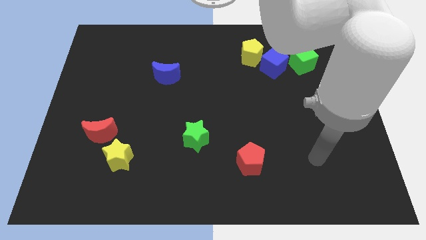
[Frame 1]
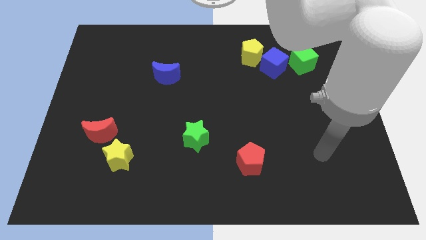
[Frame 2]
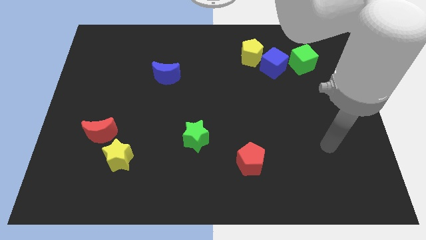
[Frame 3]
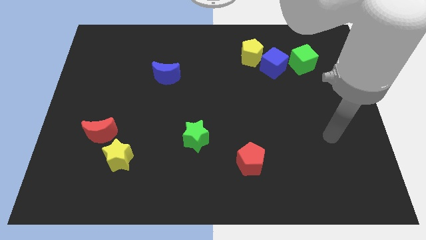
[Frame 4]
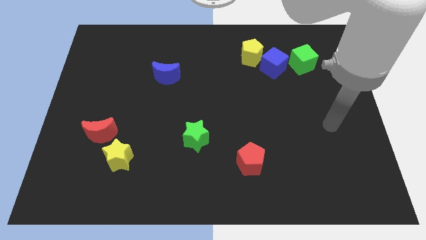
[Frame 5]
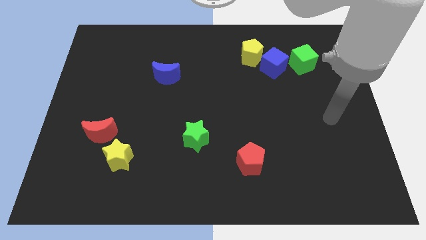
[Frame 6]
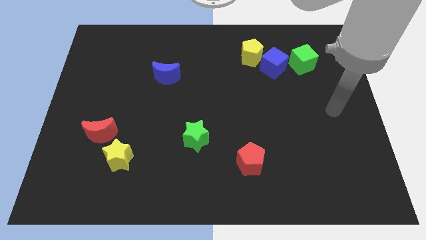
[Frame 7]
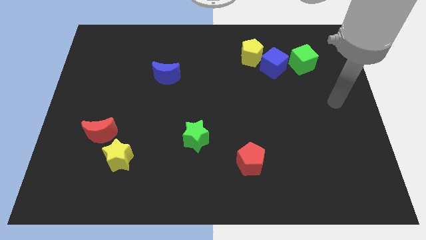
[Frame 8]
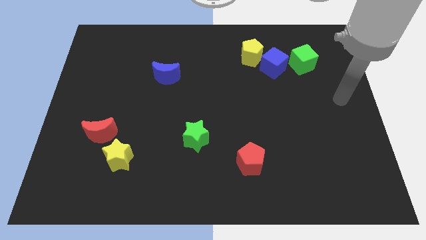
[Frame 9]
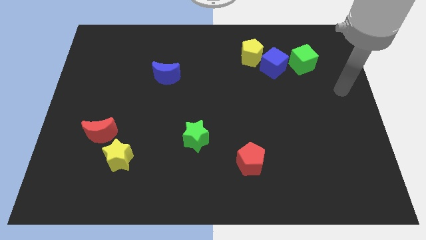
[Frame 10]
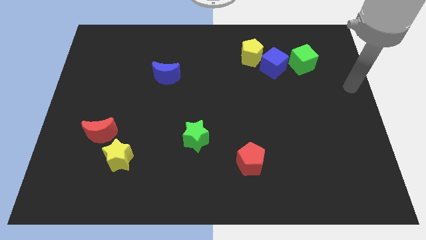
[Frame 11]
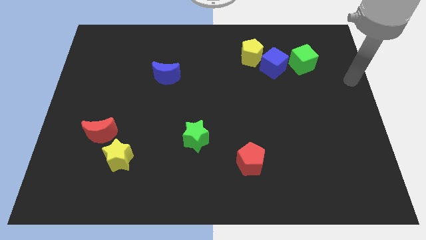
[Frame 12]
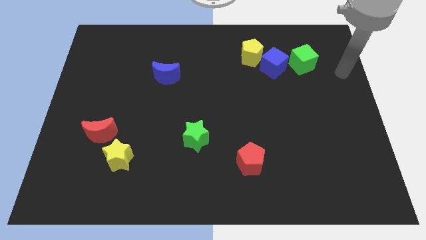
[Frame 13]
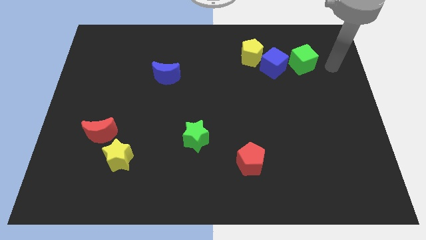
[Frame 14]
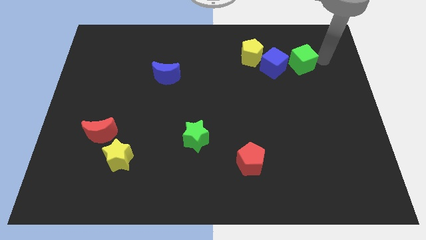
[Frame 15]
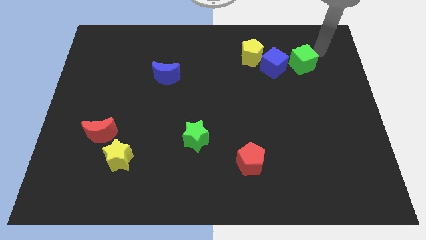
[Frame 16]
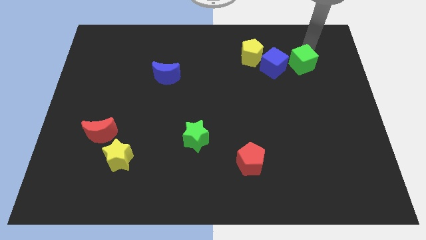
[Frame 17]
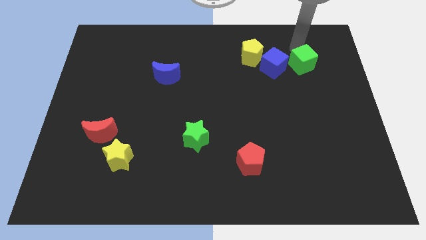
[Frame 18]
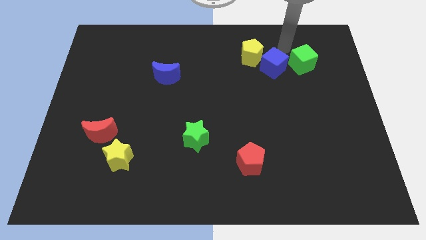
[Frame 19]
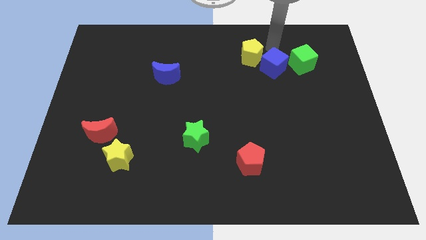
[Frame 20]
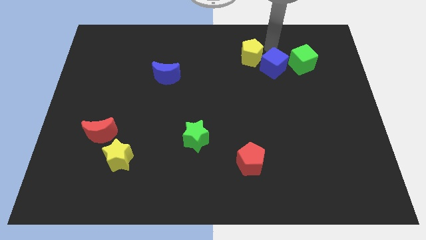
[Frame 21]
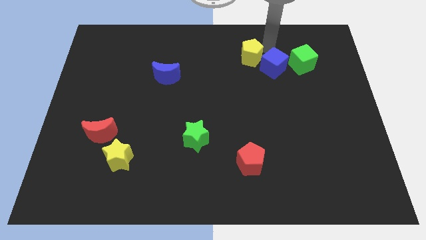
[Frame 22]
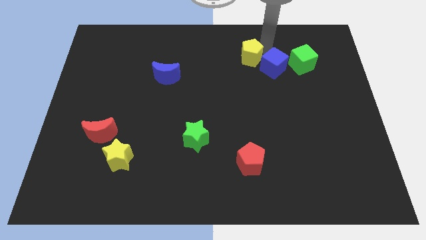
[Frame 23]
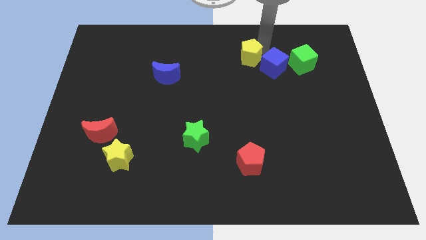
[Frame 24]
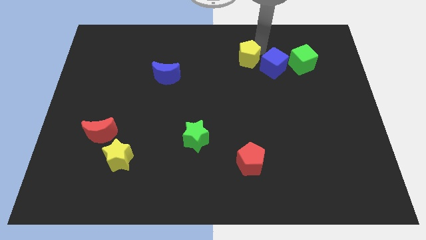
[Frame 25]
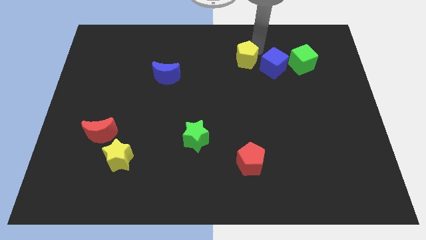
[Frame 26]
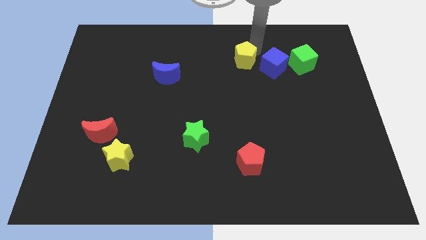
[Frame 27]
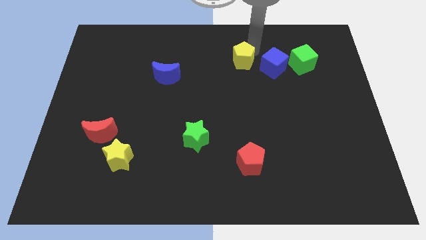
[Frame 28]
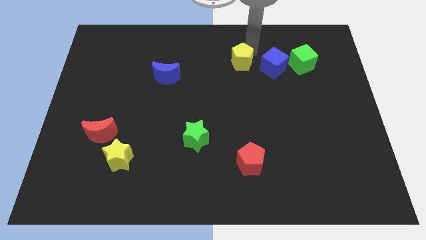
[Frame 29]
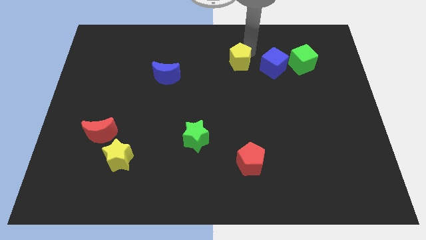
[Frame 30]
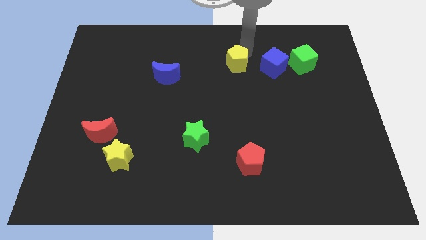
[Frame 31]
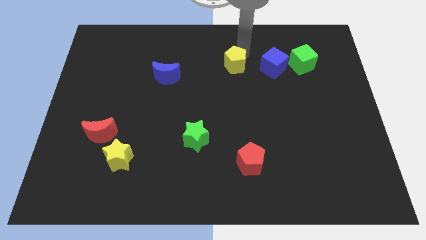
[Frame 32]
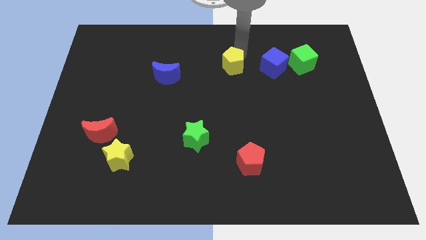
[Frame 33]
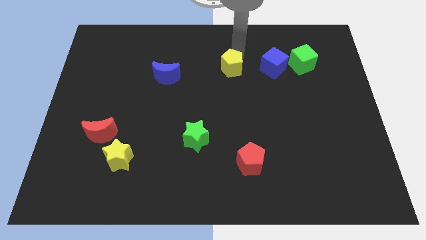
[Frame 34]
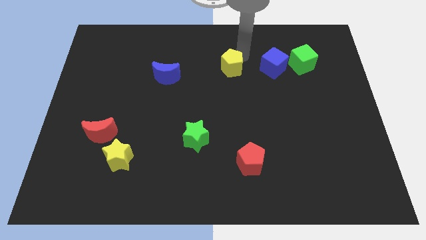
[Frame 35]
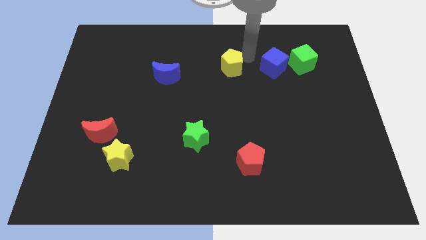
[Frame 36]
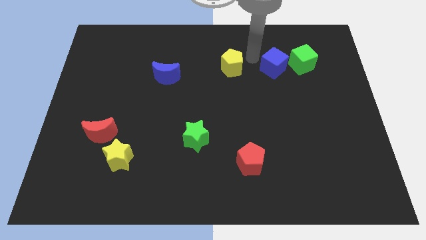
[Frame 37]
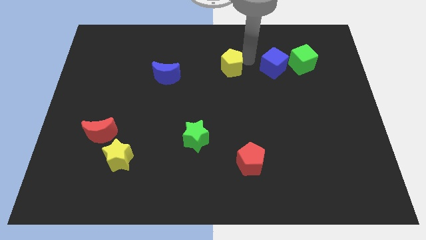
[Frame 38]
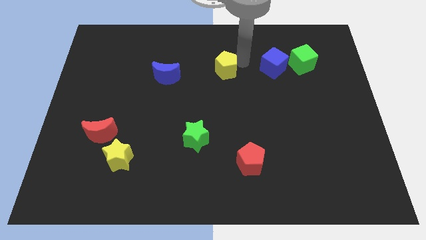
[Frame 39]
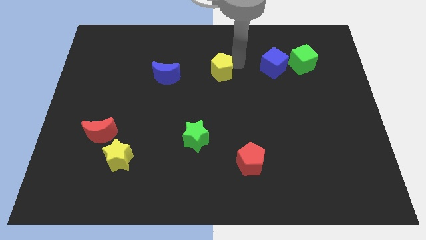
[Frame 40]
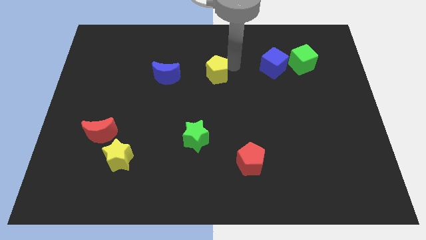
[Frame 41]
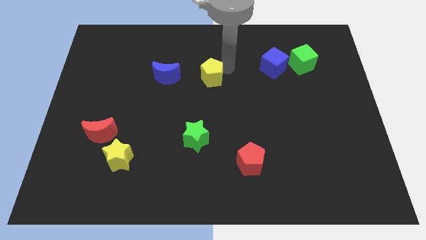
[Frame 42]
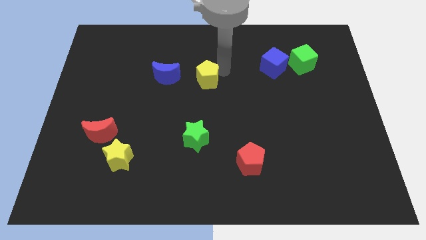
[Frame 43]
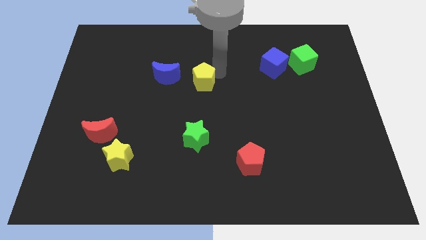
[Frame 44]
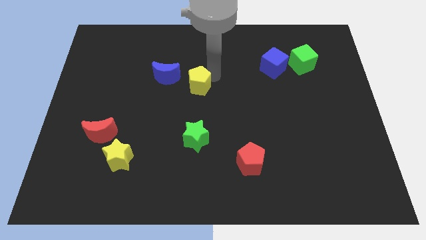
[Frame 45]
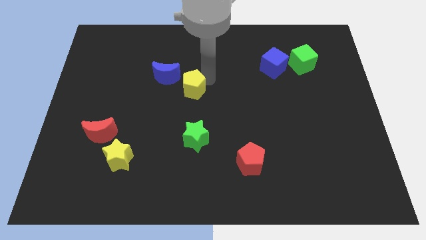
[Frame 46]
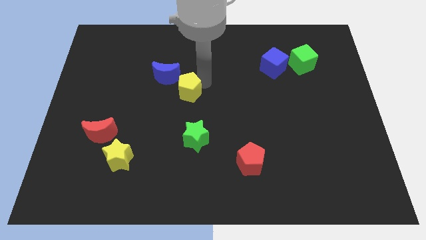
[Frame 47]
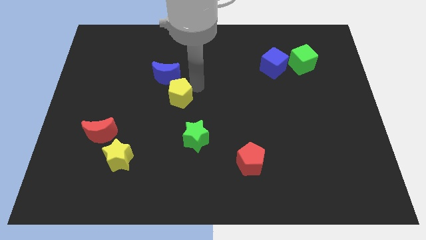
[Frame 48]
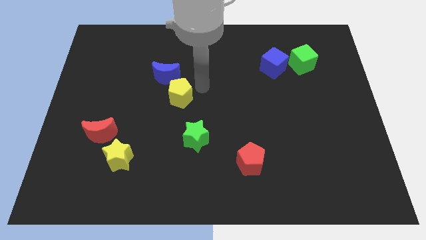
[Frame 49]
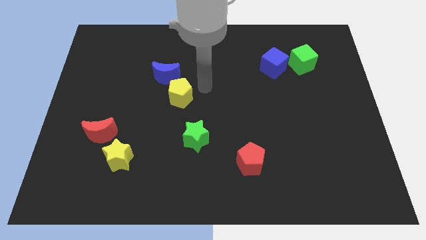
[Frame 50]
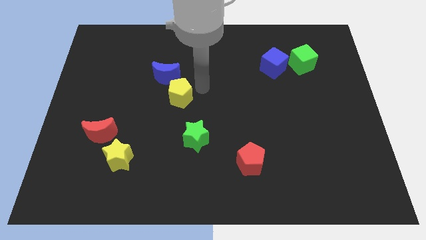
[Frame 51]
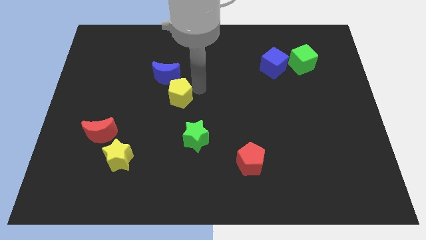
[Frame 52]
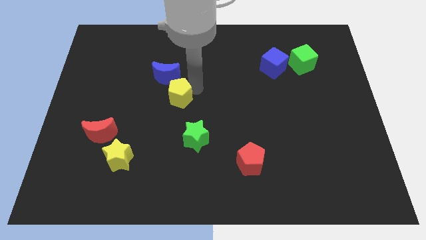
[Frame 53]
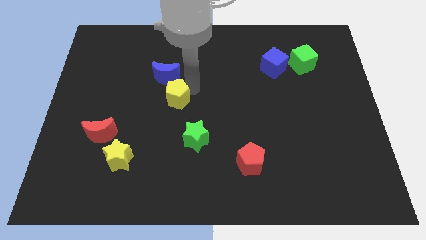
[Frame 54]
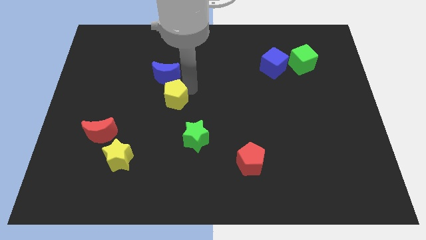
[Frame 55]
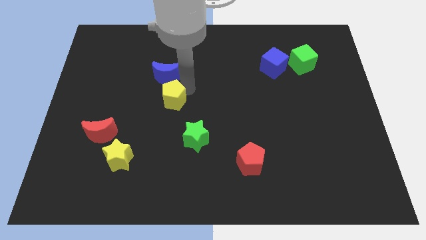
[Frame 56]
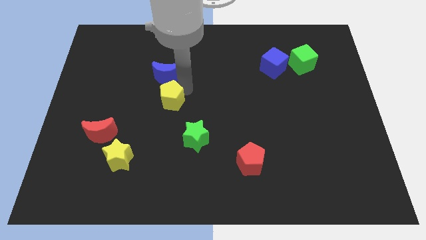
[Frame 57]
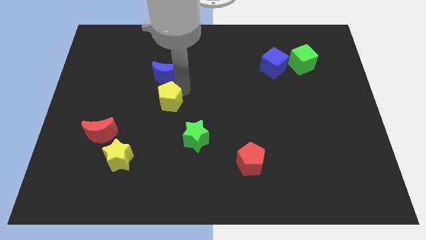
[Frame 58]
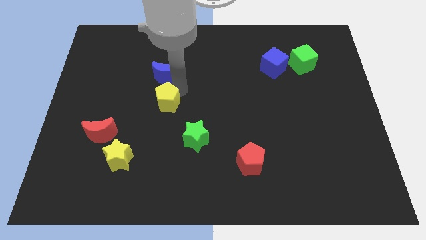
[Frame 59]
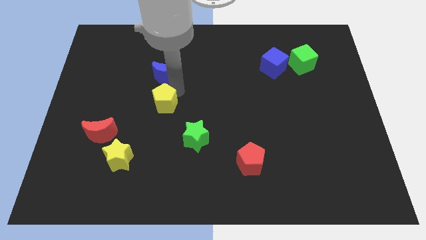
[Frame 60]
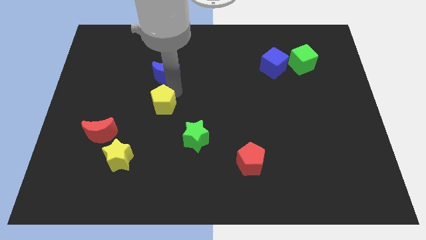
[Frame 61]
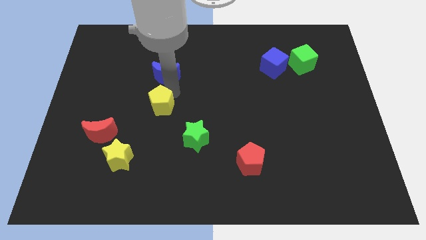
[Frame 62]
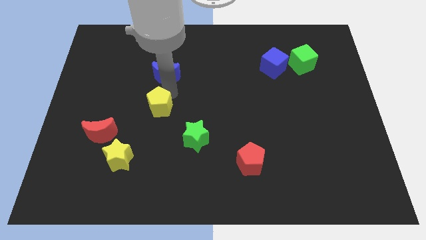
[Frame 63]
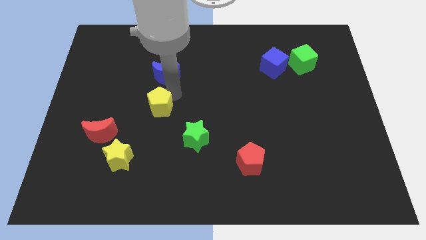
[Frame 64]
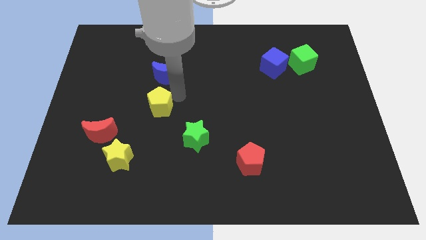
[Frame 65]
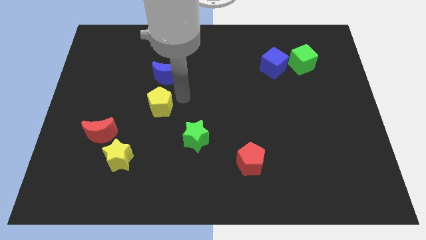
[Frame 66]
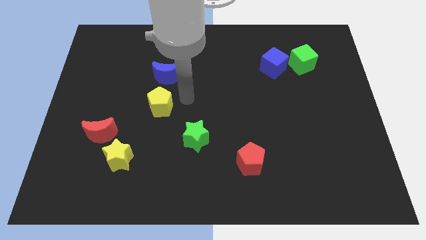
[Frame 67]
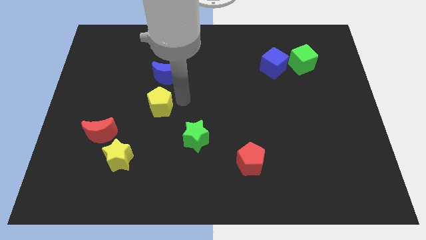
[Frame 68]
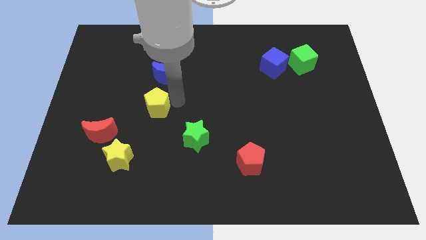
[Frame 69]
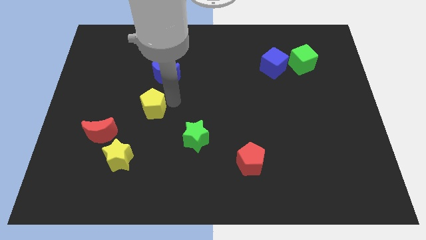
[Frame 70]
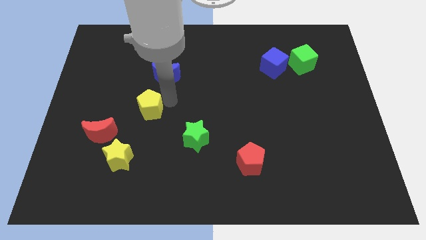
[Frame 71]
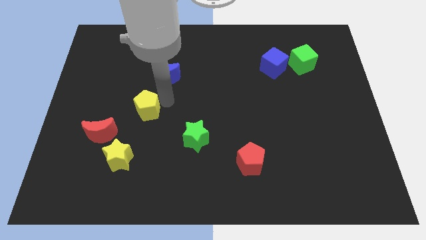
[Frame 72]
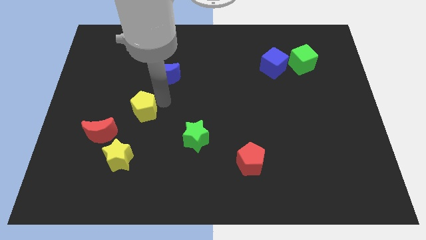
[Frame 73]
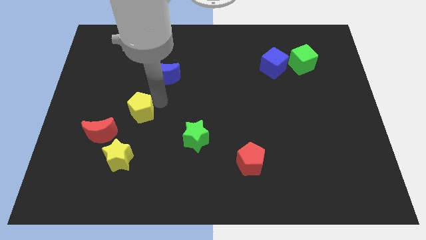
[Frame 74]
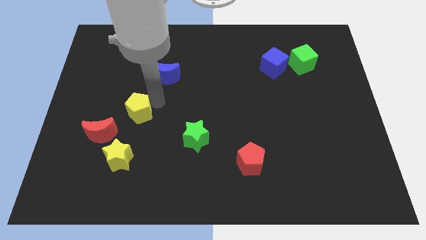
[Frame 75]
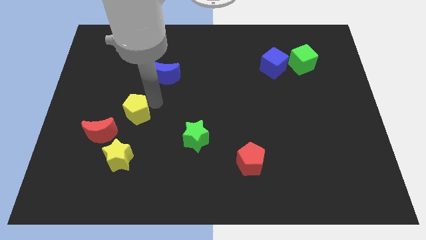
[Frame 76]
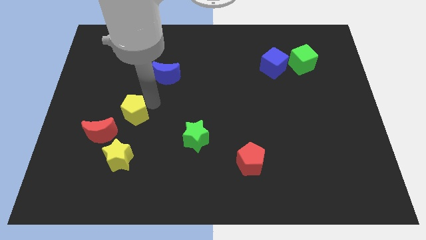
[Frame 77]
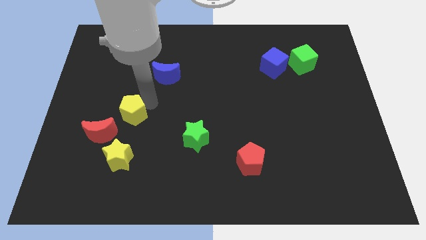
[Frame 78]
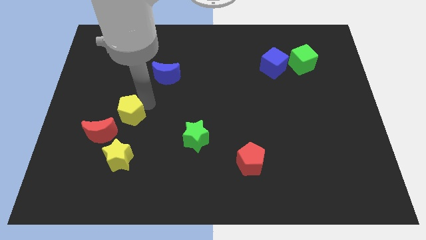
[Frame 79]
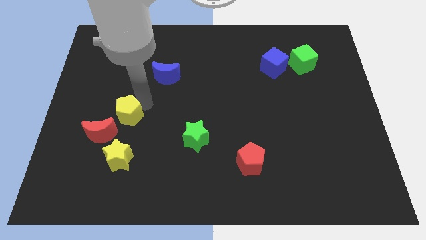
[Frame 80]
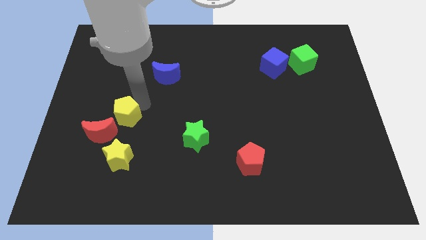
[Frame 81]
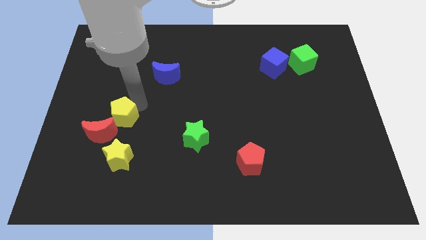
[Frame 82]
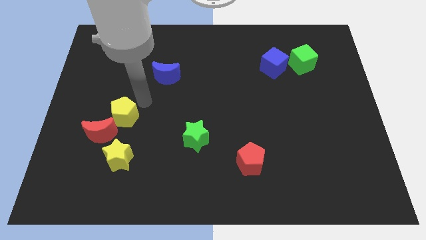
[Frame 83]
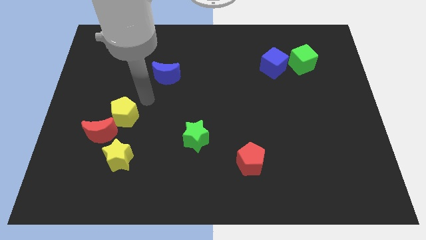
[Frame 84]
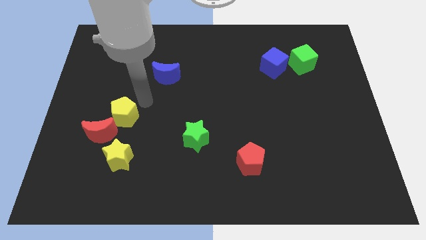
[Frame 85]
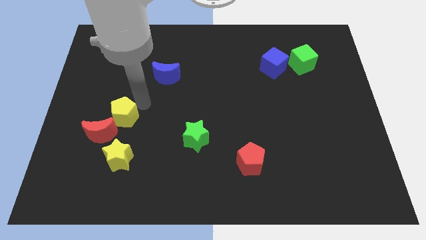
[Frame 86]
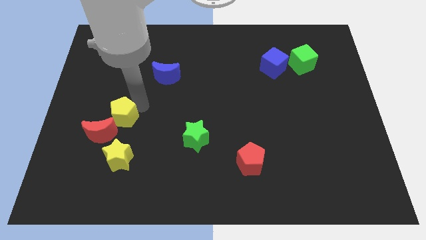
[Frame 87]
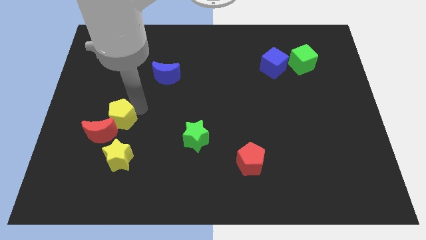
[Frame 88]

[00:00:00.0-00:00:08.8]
put the yellow pentagon next to the red moon
